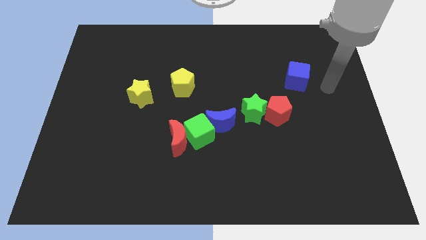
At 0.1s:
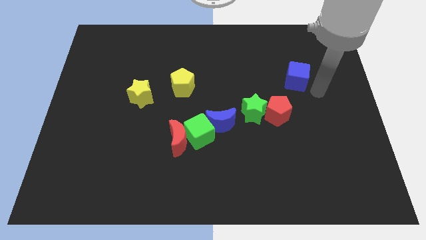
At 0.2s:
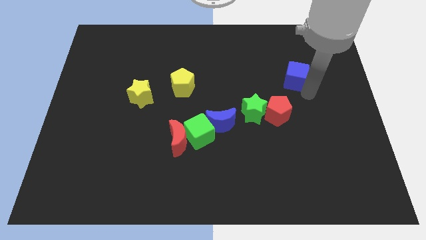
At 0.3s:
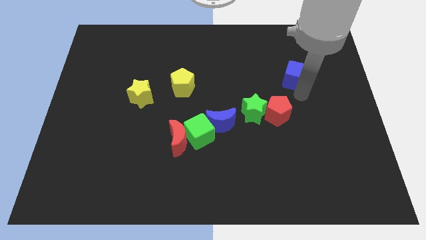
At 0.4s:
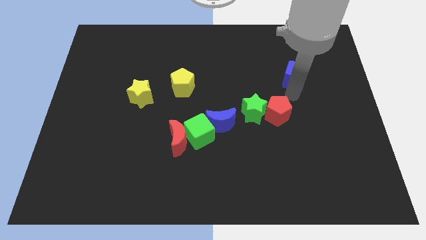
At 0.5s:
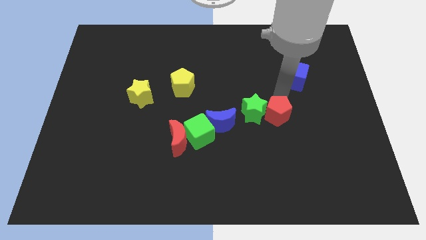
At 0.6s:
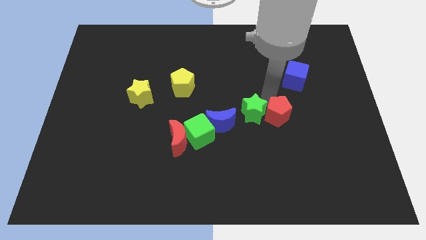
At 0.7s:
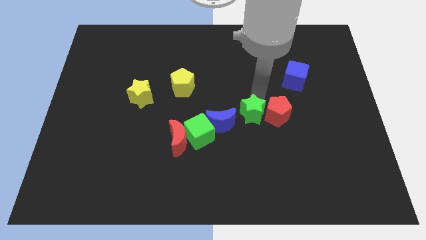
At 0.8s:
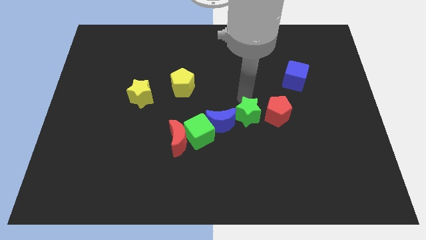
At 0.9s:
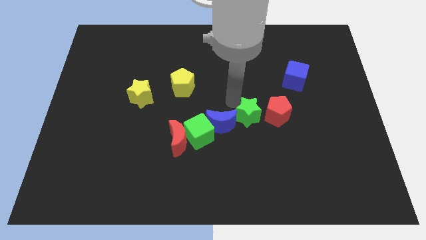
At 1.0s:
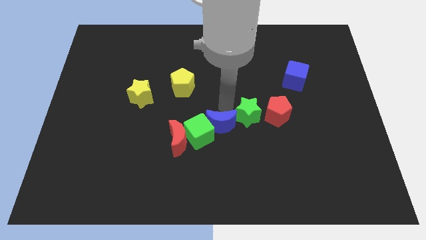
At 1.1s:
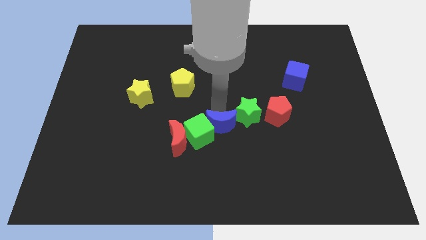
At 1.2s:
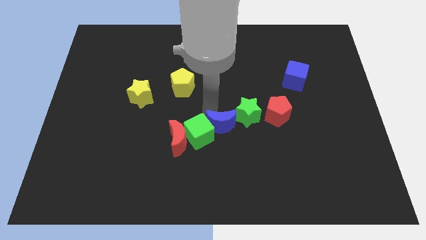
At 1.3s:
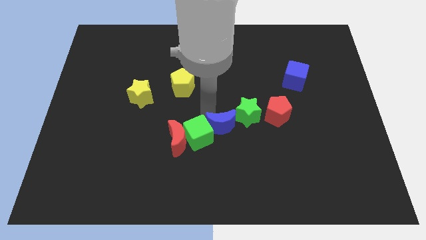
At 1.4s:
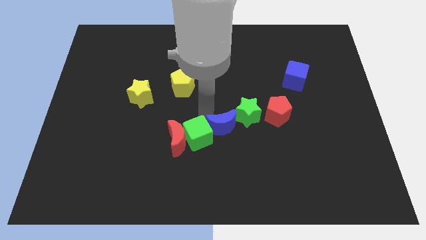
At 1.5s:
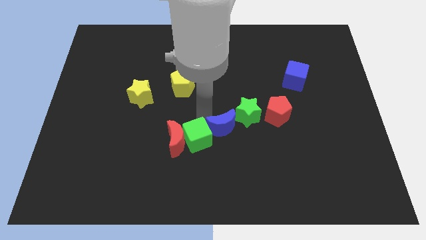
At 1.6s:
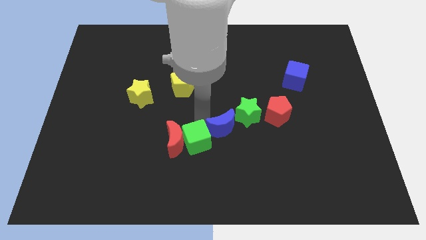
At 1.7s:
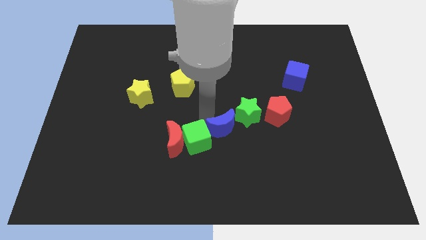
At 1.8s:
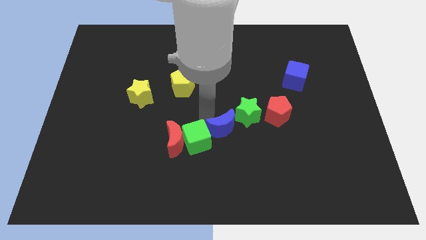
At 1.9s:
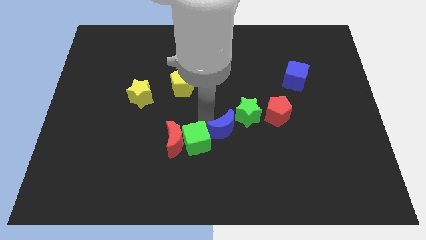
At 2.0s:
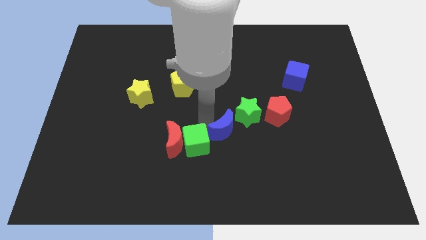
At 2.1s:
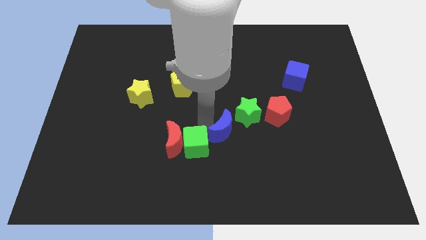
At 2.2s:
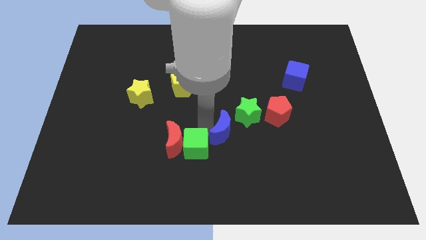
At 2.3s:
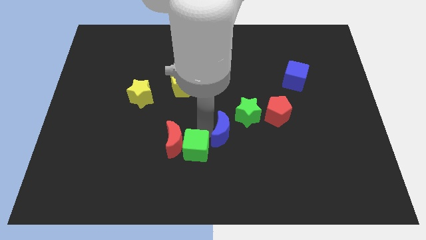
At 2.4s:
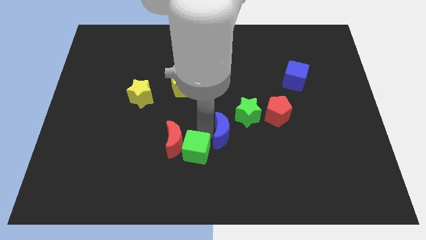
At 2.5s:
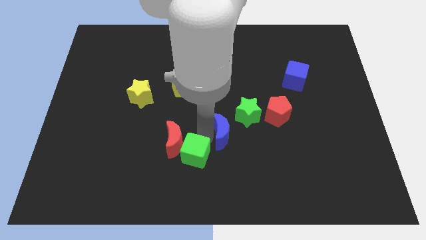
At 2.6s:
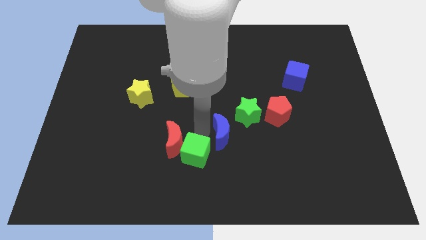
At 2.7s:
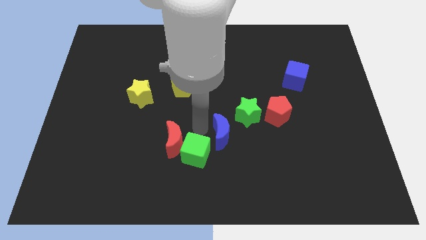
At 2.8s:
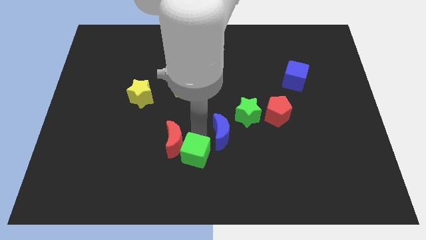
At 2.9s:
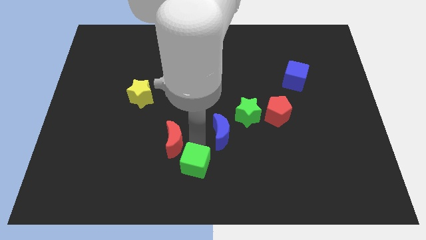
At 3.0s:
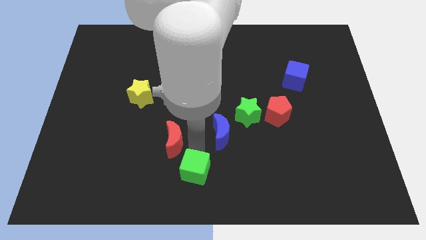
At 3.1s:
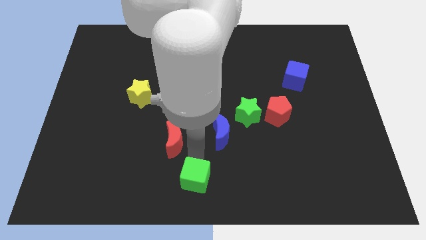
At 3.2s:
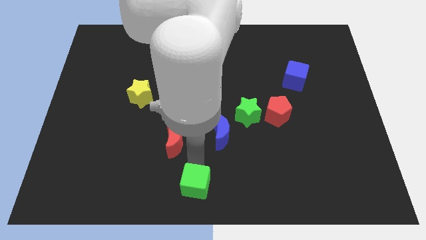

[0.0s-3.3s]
pull the green cube apart from the red moon and blue moon

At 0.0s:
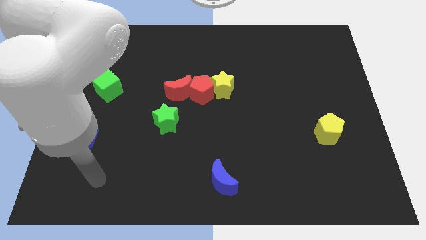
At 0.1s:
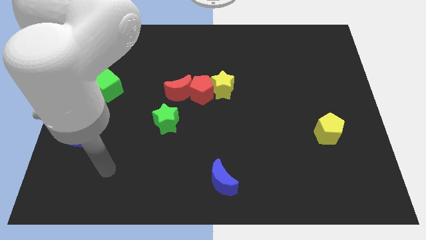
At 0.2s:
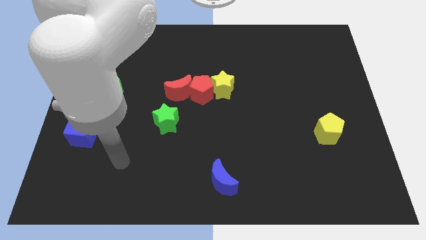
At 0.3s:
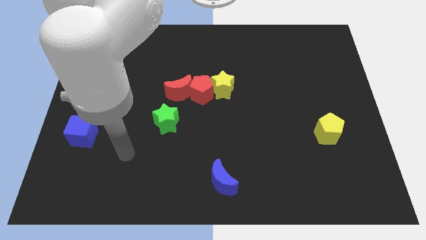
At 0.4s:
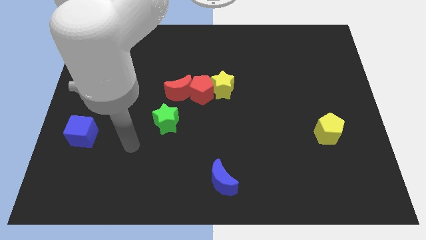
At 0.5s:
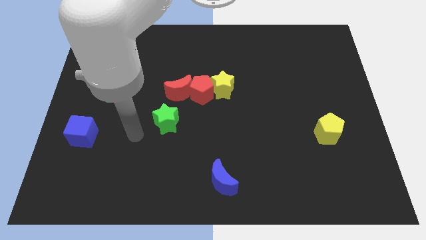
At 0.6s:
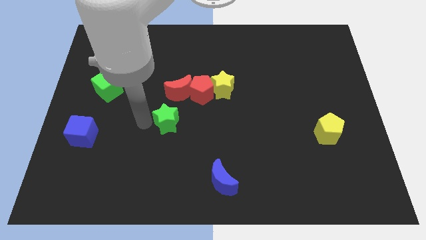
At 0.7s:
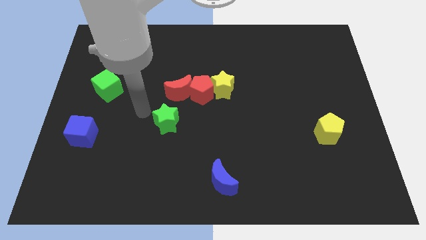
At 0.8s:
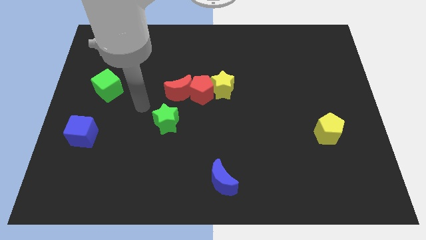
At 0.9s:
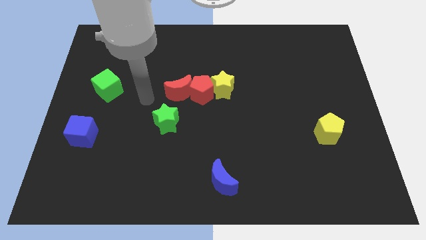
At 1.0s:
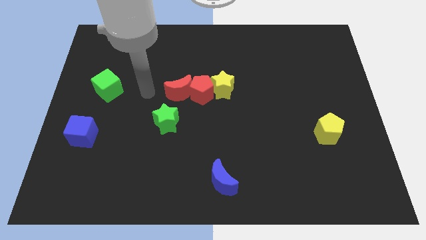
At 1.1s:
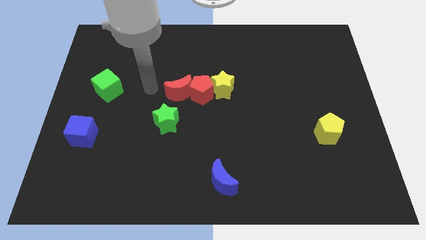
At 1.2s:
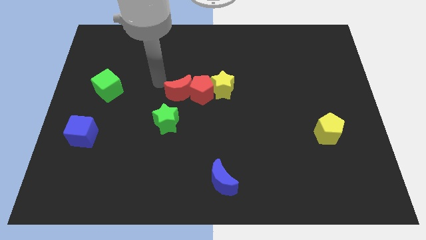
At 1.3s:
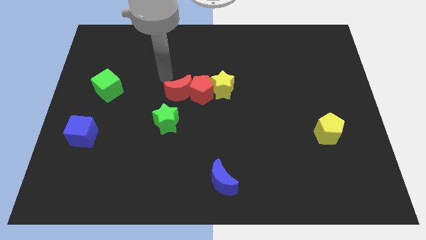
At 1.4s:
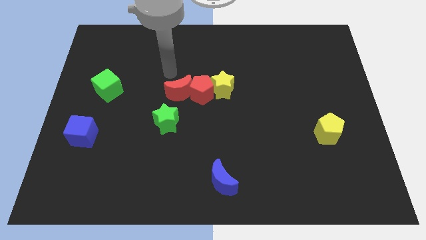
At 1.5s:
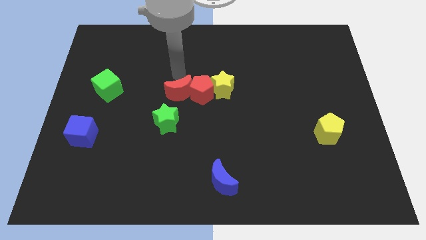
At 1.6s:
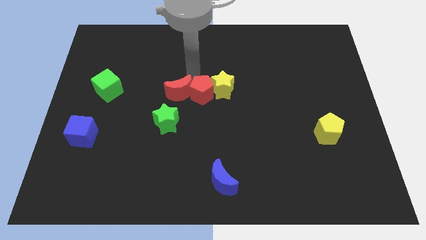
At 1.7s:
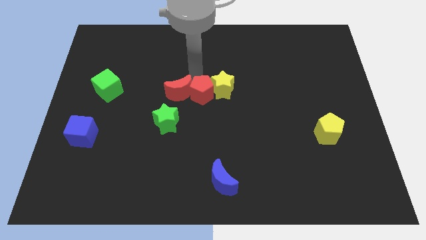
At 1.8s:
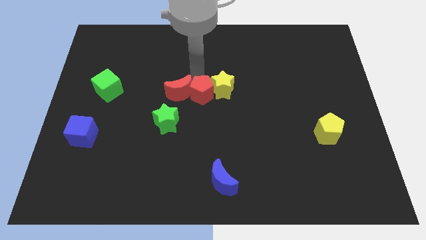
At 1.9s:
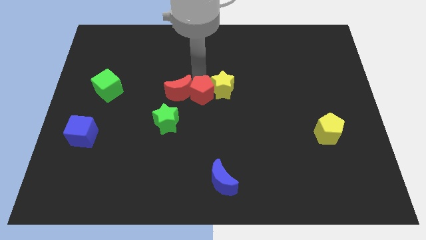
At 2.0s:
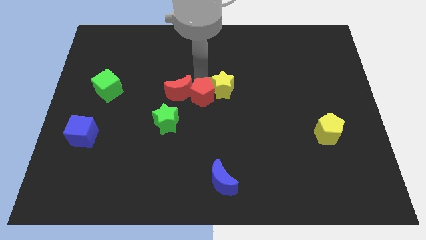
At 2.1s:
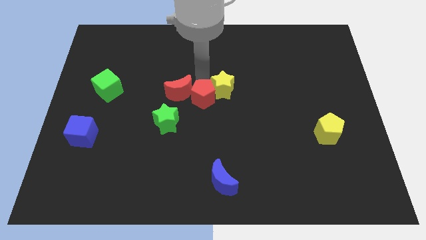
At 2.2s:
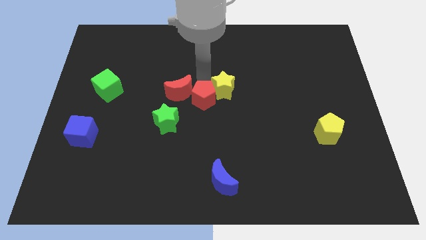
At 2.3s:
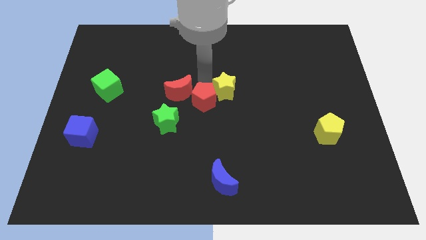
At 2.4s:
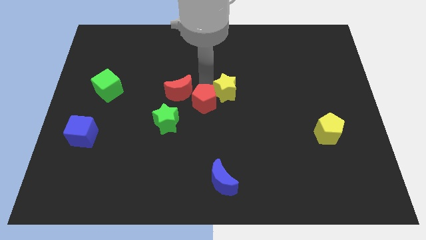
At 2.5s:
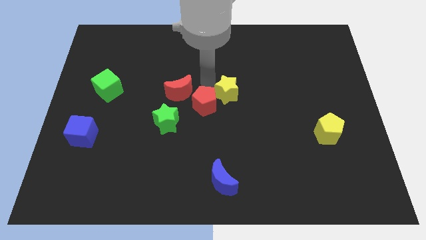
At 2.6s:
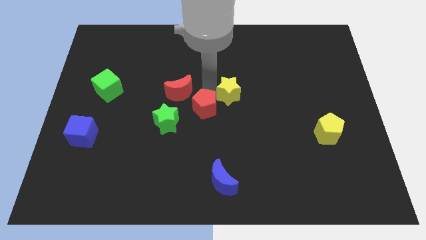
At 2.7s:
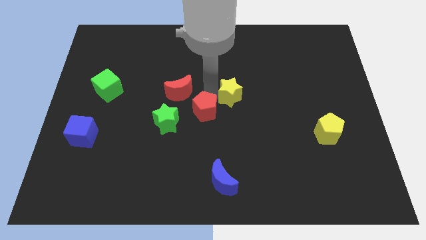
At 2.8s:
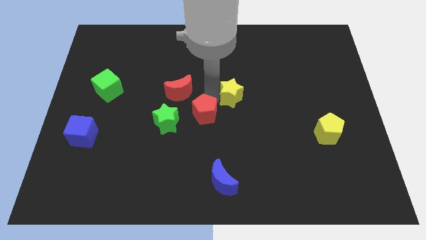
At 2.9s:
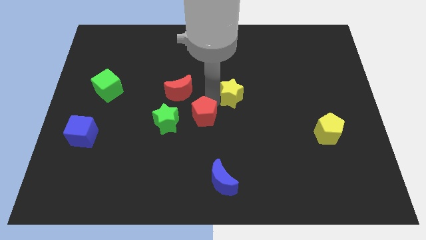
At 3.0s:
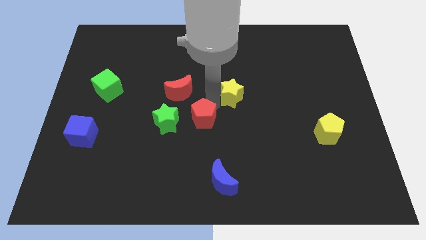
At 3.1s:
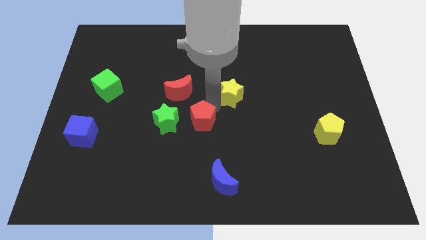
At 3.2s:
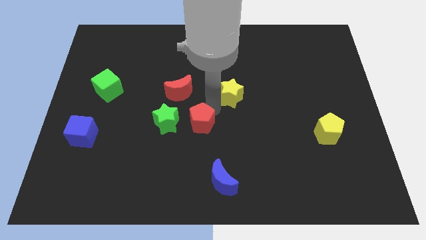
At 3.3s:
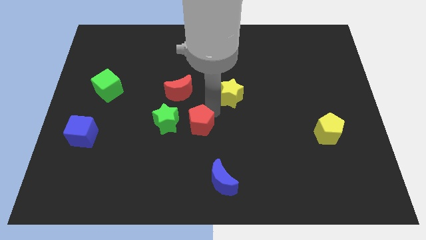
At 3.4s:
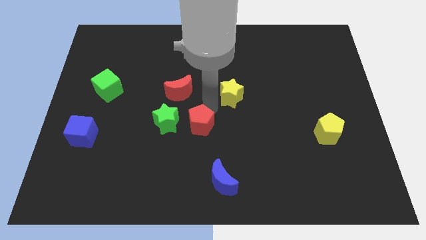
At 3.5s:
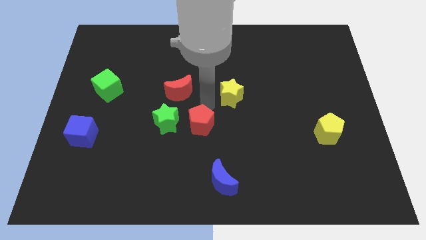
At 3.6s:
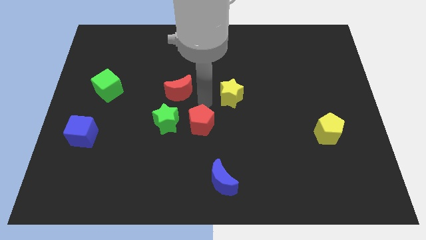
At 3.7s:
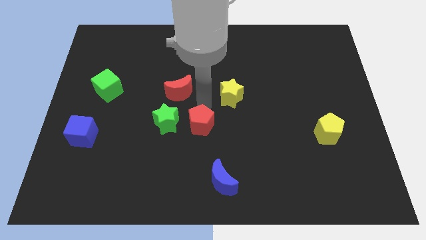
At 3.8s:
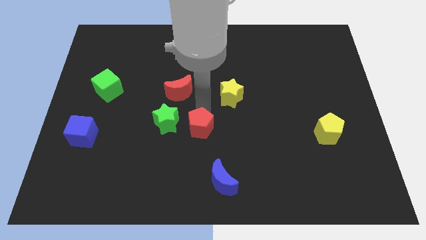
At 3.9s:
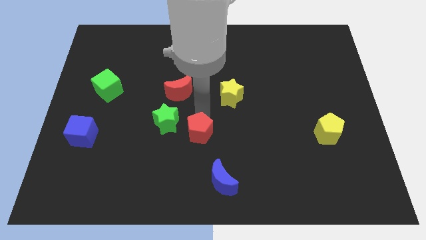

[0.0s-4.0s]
separate the red pentagon from the yellow star and red moon

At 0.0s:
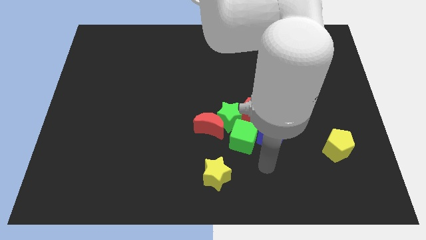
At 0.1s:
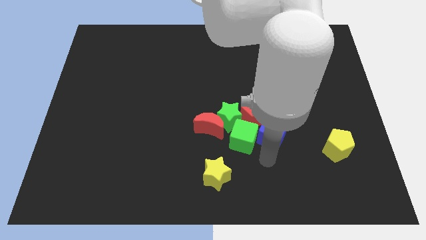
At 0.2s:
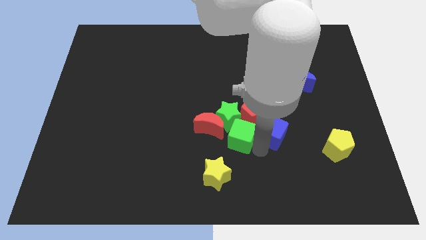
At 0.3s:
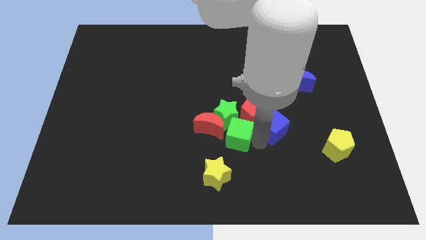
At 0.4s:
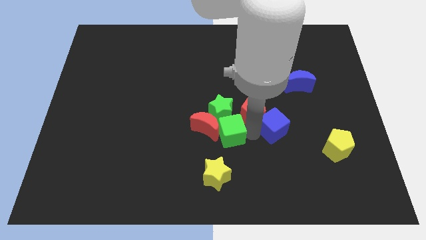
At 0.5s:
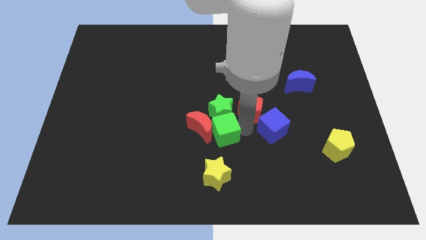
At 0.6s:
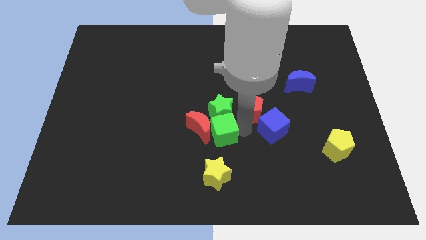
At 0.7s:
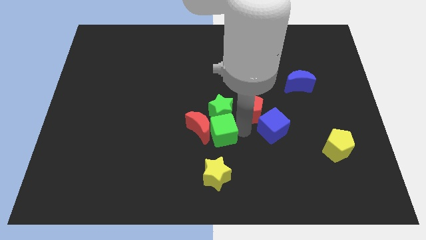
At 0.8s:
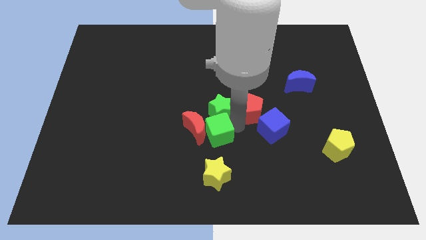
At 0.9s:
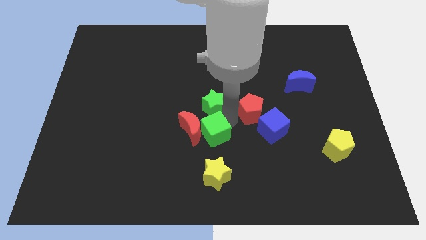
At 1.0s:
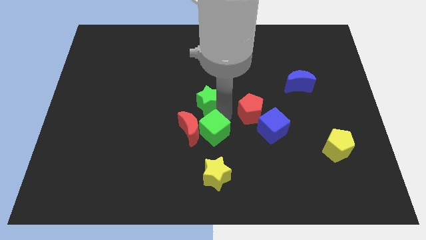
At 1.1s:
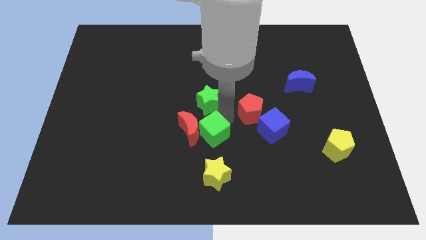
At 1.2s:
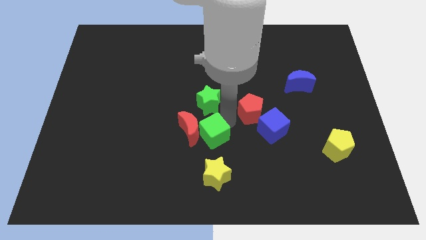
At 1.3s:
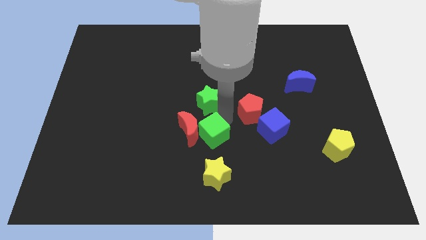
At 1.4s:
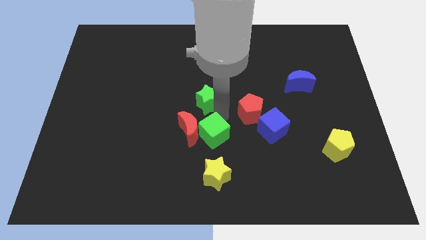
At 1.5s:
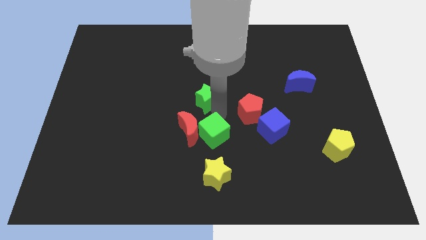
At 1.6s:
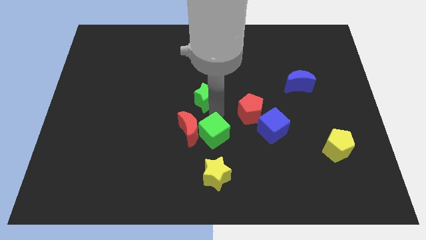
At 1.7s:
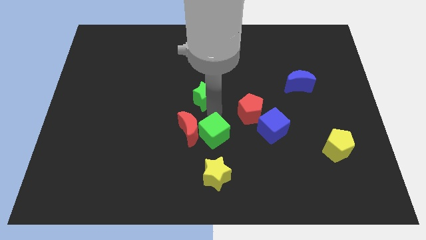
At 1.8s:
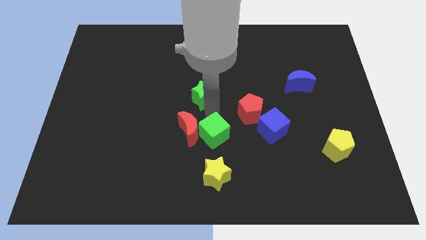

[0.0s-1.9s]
pull the green star apart from the group

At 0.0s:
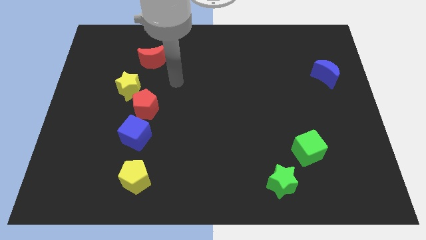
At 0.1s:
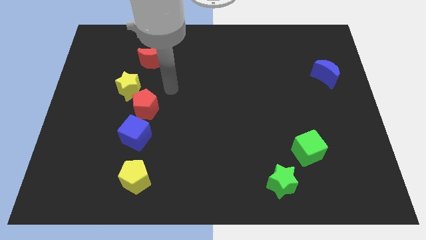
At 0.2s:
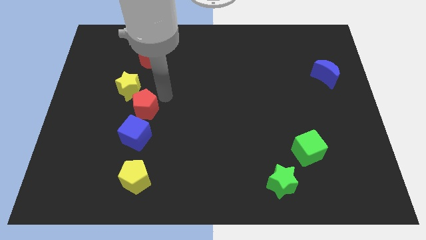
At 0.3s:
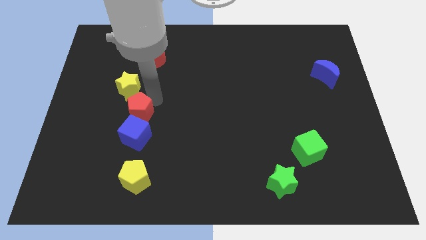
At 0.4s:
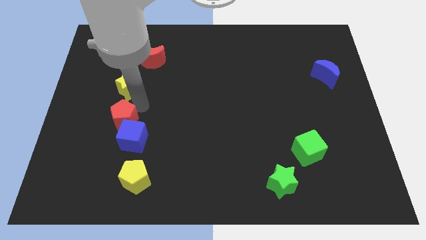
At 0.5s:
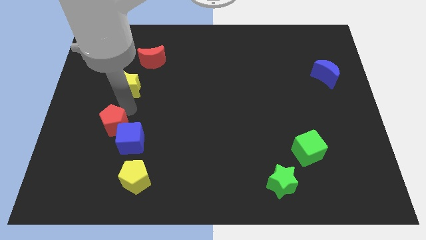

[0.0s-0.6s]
separate the yellow star from the red pentagon
